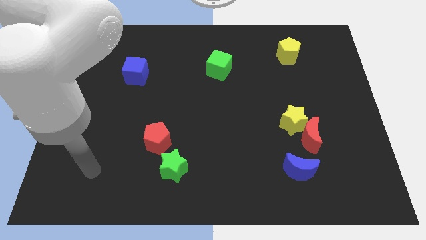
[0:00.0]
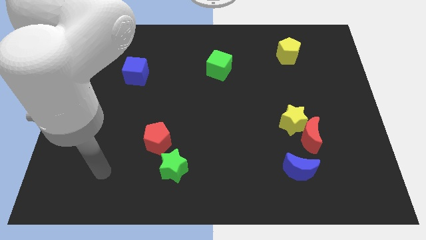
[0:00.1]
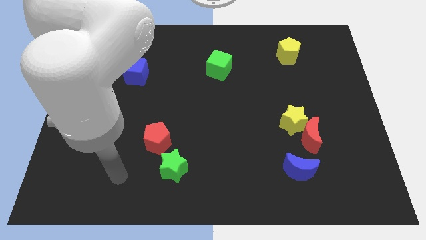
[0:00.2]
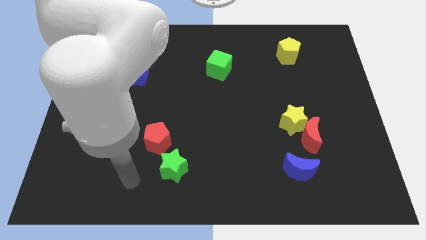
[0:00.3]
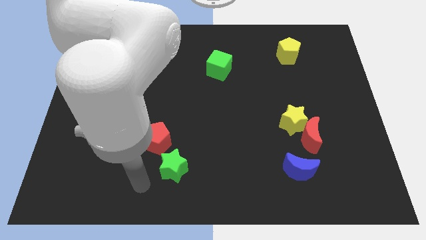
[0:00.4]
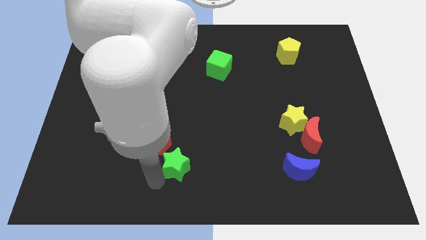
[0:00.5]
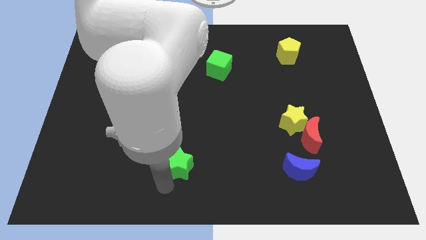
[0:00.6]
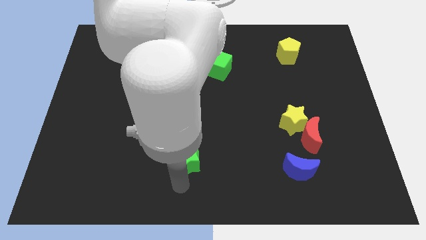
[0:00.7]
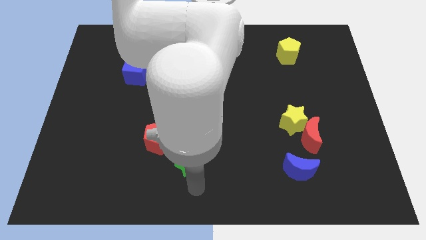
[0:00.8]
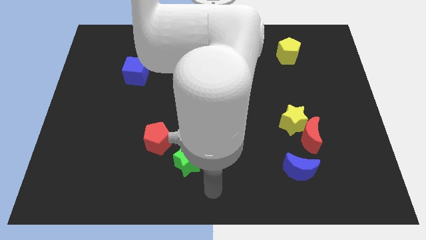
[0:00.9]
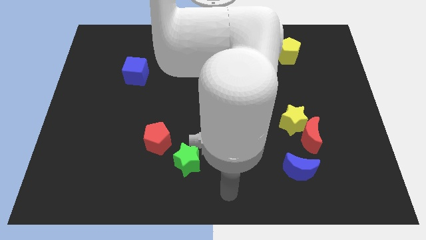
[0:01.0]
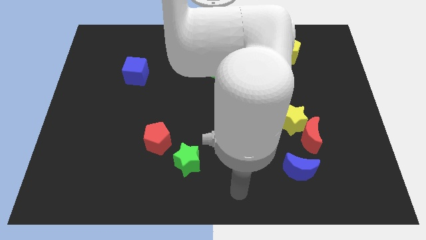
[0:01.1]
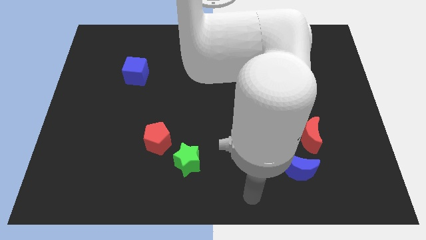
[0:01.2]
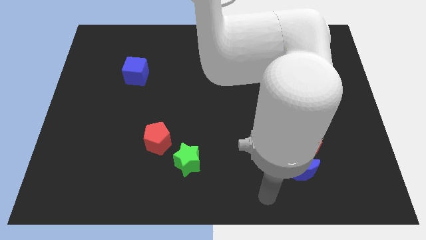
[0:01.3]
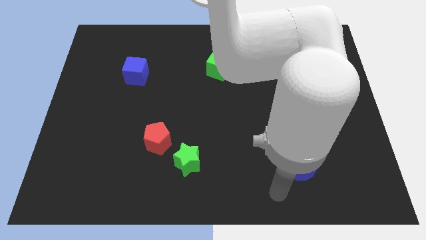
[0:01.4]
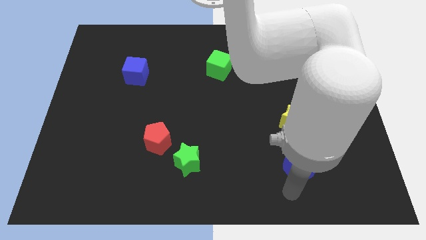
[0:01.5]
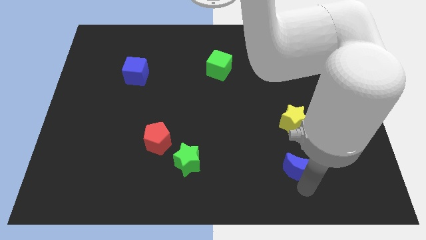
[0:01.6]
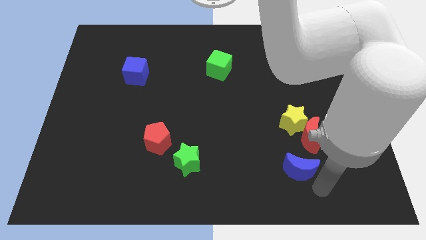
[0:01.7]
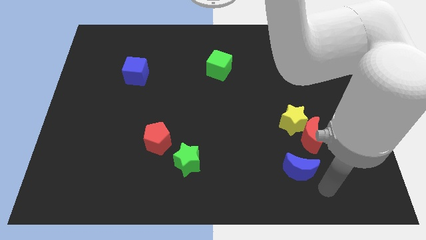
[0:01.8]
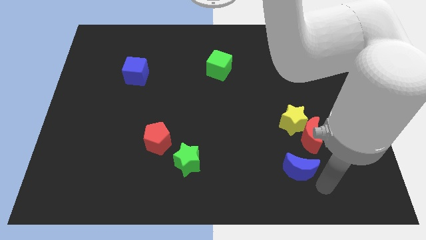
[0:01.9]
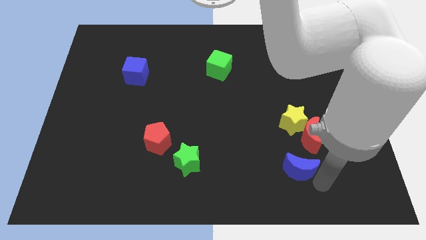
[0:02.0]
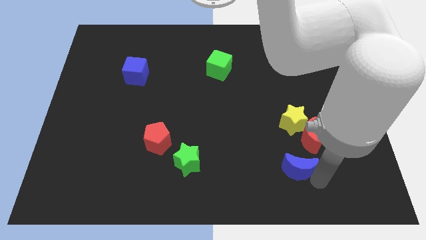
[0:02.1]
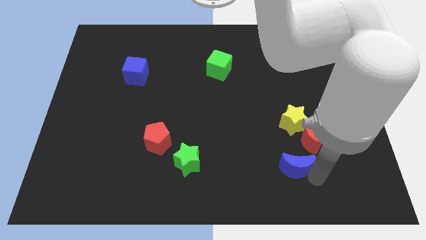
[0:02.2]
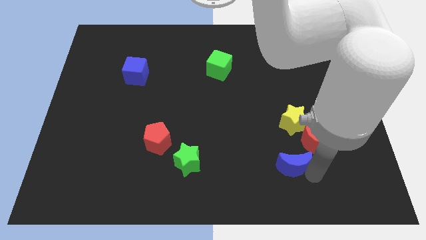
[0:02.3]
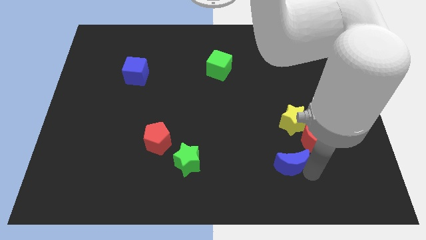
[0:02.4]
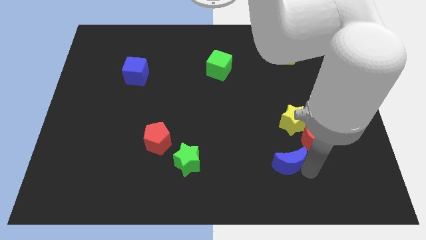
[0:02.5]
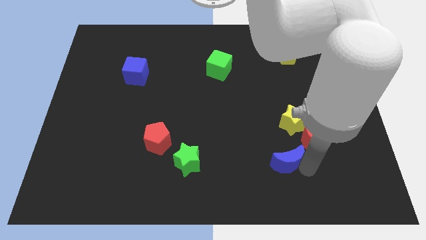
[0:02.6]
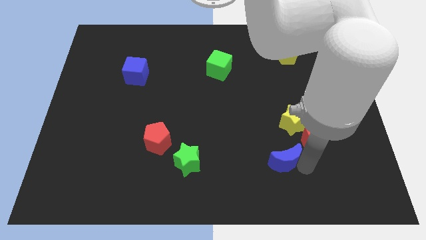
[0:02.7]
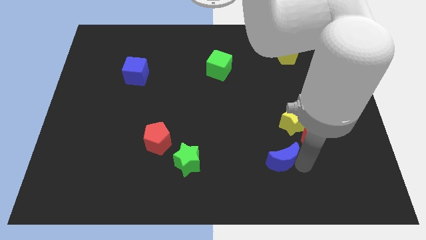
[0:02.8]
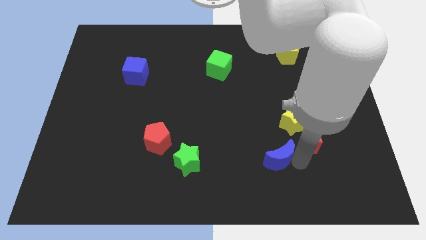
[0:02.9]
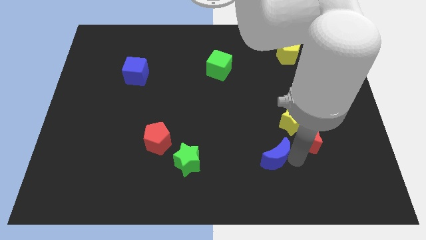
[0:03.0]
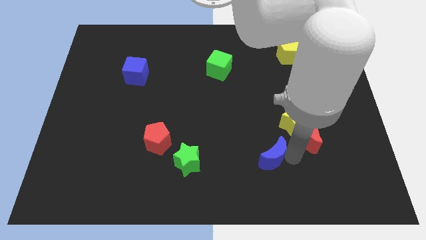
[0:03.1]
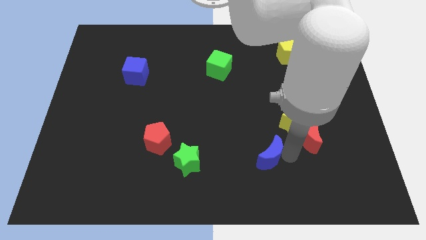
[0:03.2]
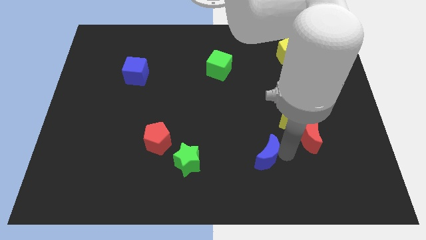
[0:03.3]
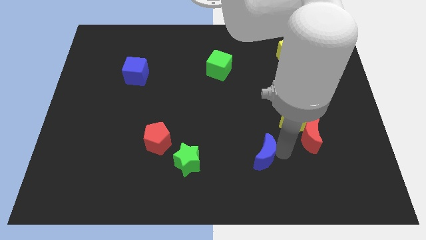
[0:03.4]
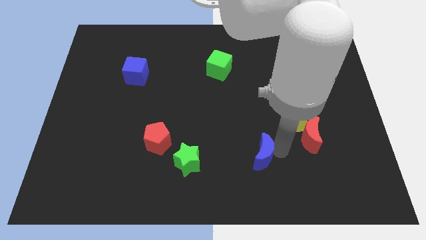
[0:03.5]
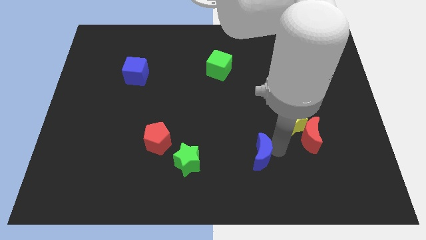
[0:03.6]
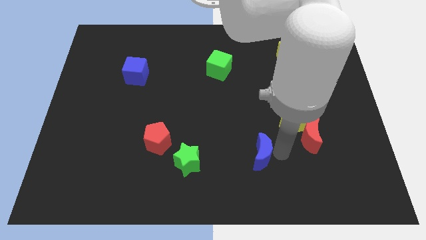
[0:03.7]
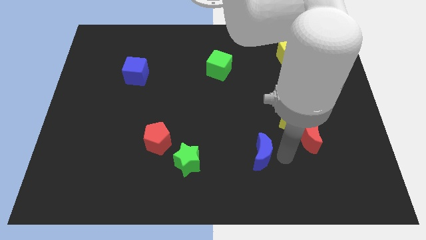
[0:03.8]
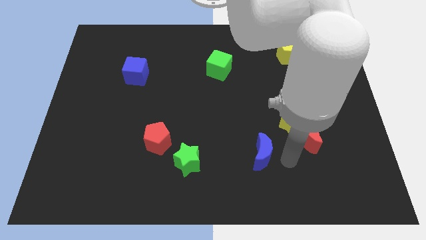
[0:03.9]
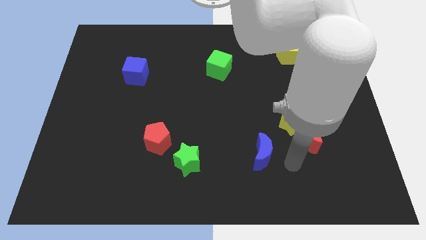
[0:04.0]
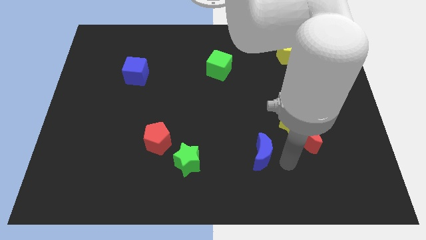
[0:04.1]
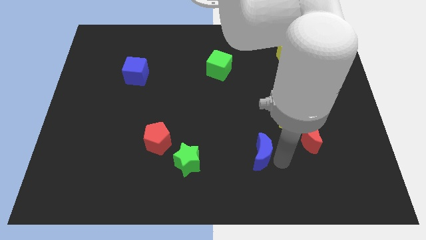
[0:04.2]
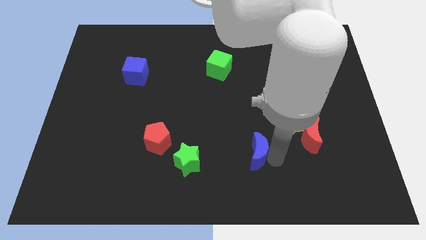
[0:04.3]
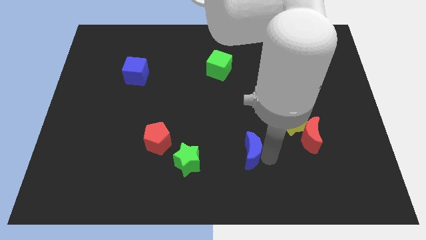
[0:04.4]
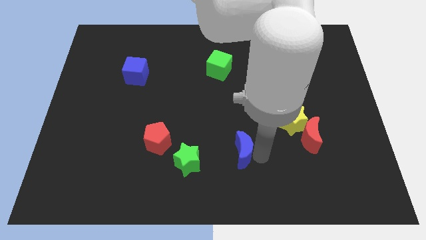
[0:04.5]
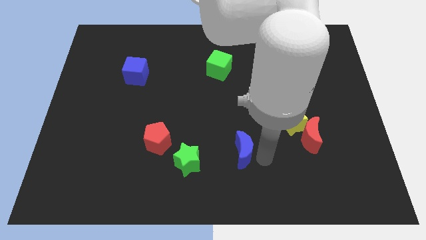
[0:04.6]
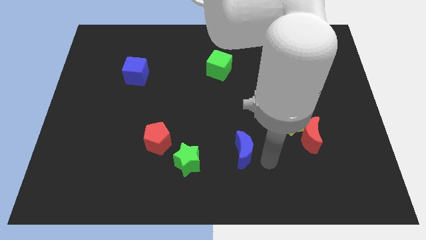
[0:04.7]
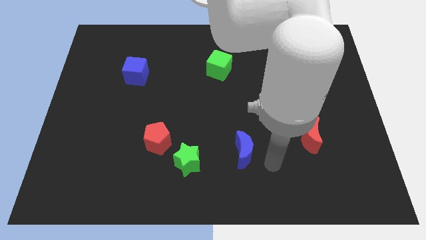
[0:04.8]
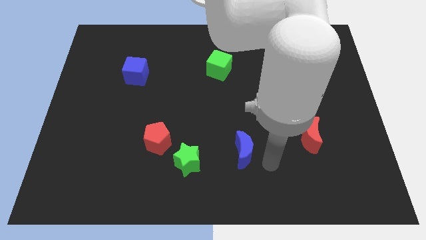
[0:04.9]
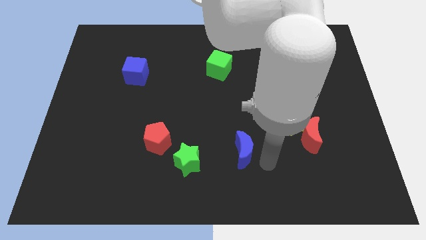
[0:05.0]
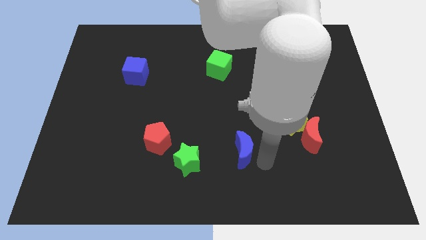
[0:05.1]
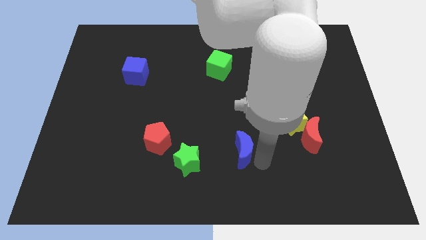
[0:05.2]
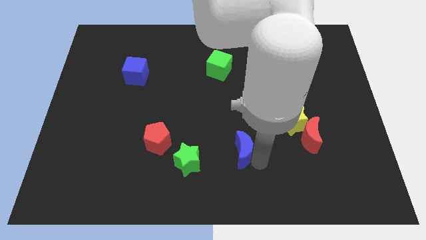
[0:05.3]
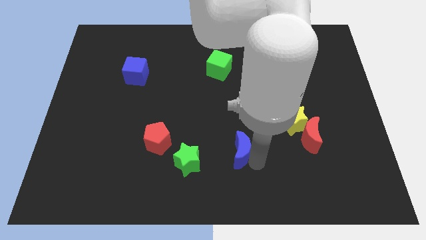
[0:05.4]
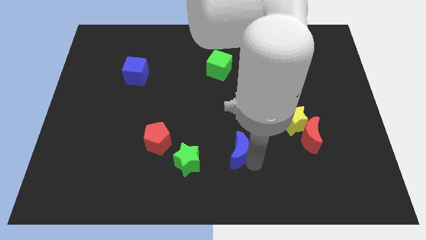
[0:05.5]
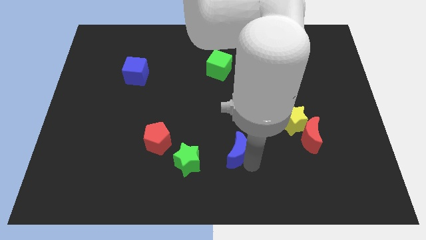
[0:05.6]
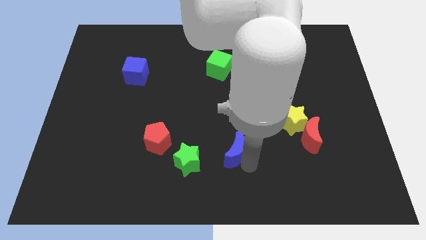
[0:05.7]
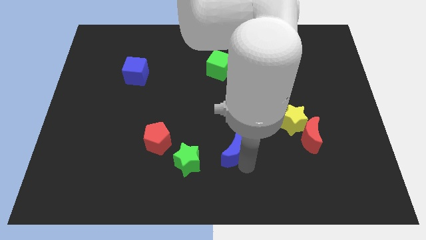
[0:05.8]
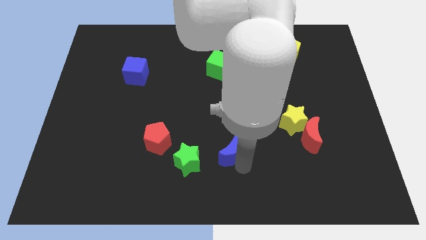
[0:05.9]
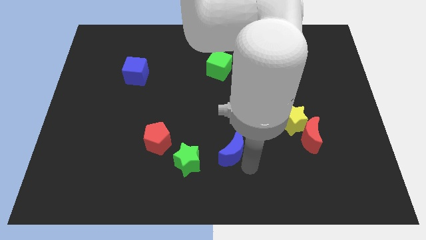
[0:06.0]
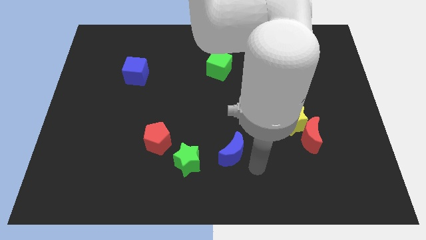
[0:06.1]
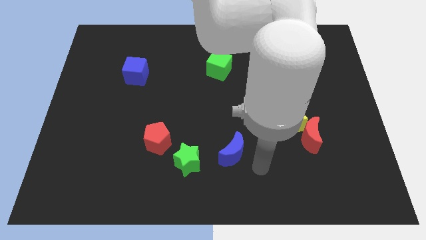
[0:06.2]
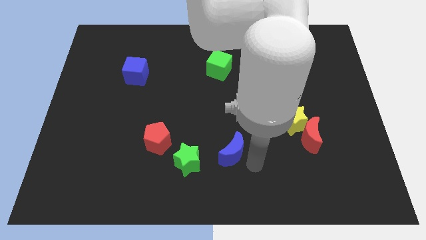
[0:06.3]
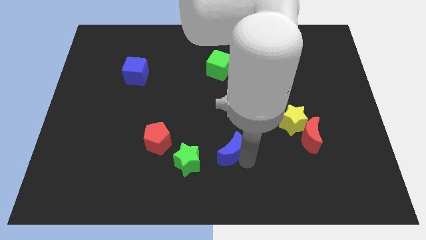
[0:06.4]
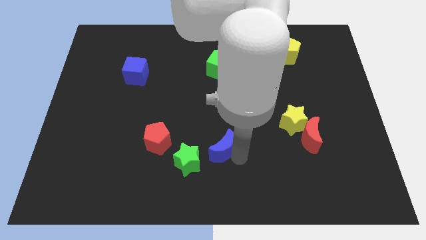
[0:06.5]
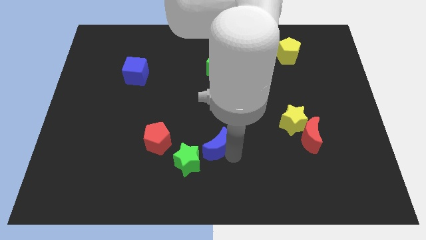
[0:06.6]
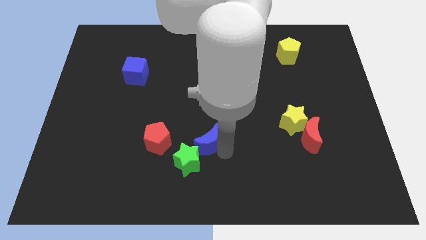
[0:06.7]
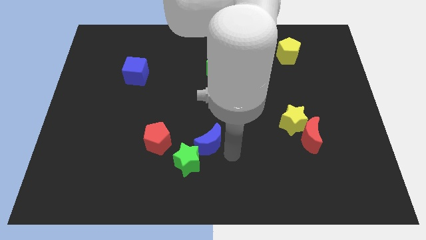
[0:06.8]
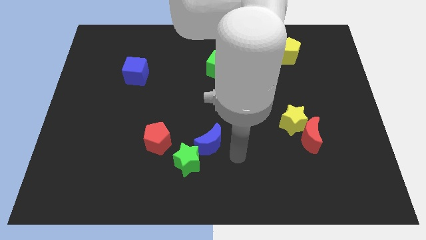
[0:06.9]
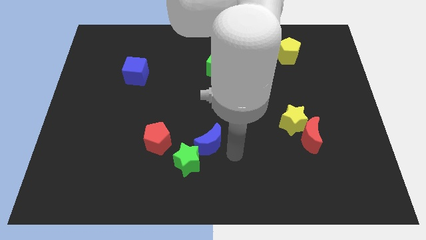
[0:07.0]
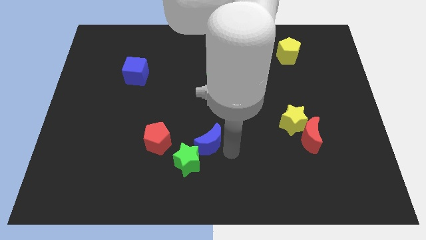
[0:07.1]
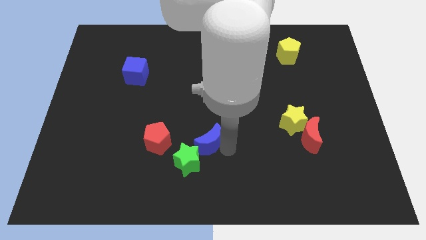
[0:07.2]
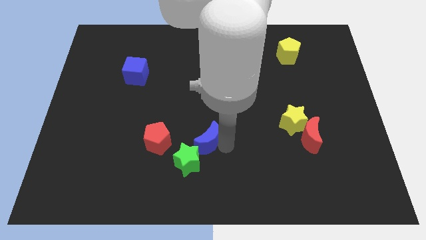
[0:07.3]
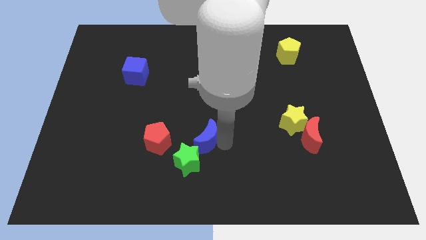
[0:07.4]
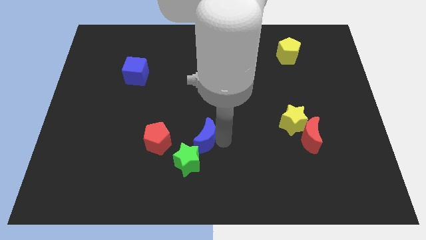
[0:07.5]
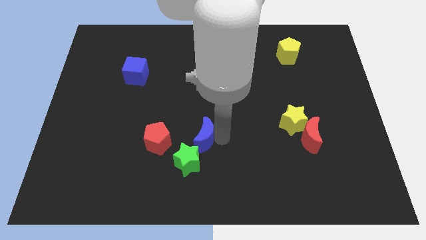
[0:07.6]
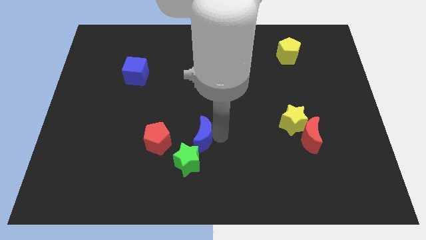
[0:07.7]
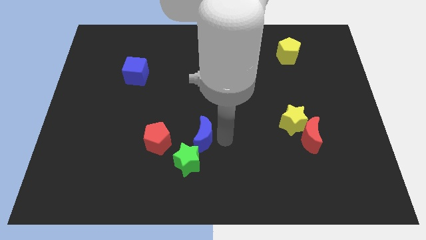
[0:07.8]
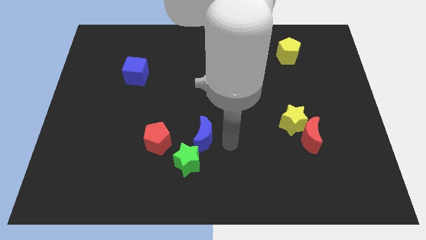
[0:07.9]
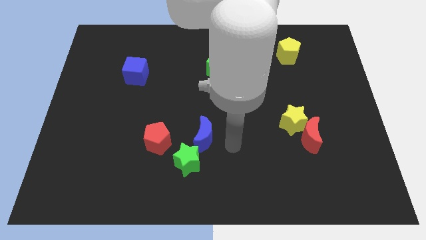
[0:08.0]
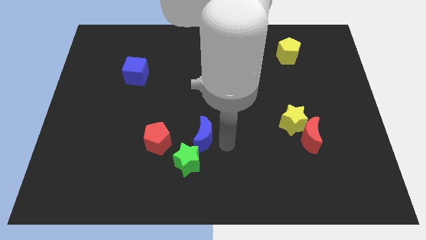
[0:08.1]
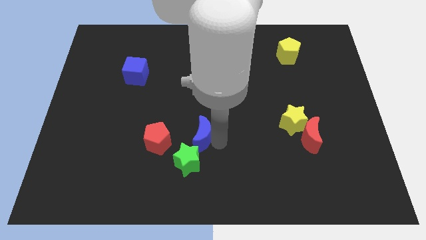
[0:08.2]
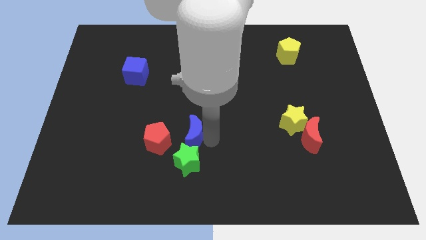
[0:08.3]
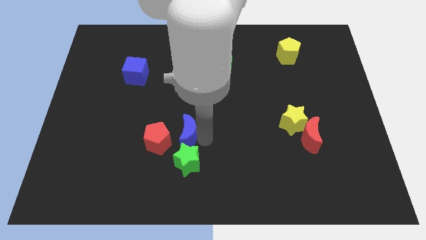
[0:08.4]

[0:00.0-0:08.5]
put the blue moon diagonally up and to the left of the green star
